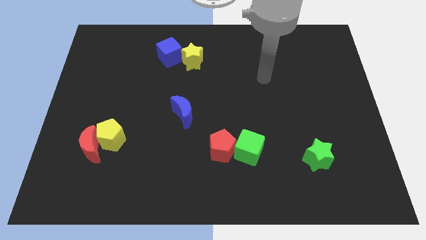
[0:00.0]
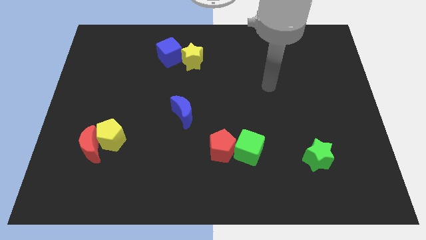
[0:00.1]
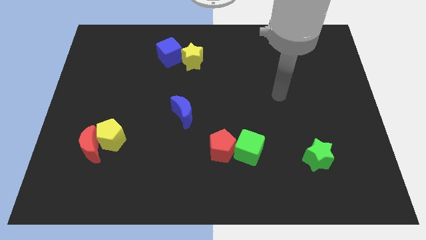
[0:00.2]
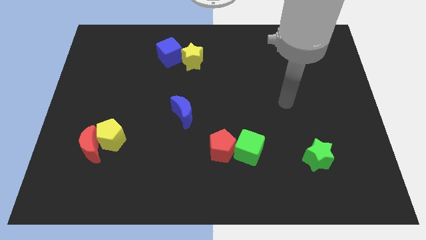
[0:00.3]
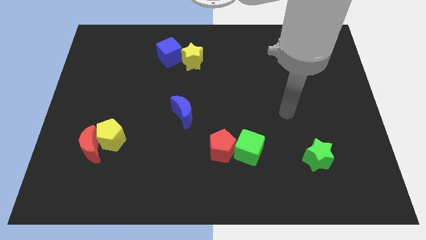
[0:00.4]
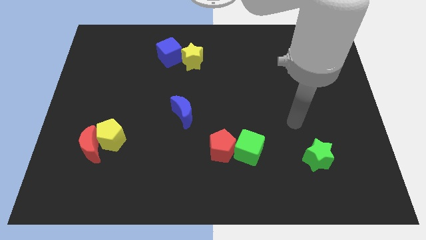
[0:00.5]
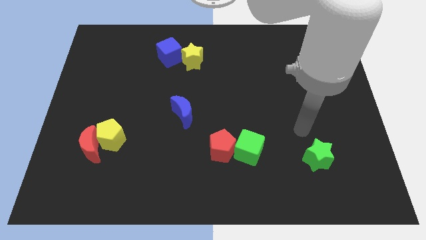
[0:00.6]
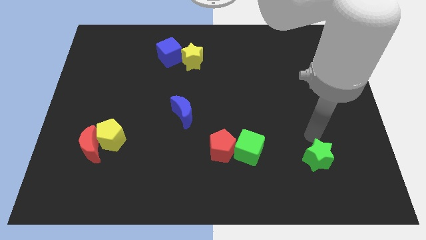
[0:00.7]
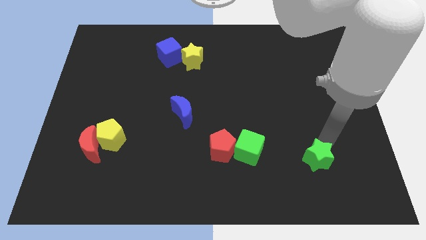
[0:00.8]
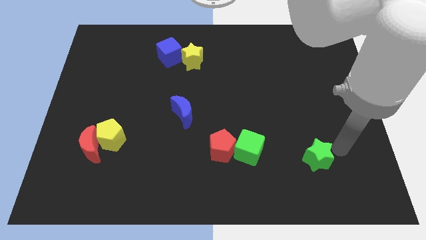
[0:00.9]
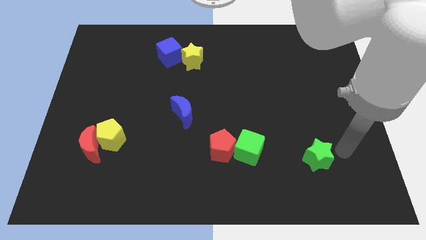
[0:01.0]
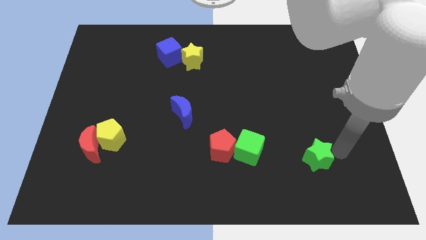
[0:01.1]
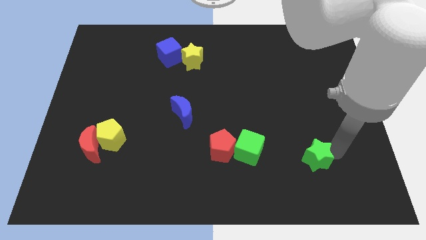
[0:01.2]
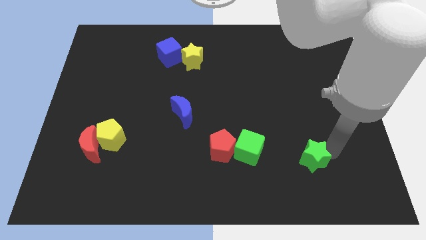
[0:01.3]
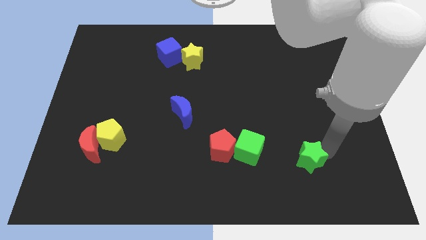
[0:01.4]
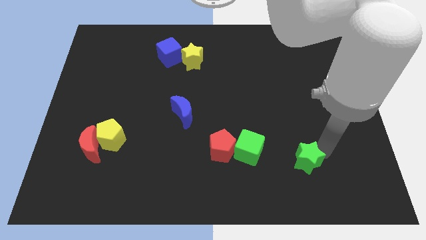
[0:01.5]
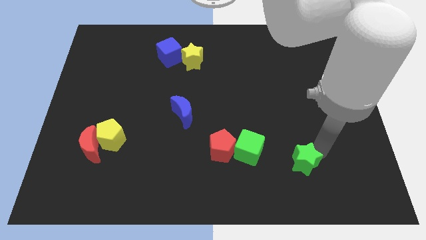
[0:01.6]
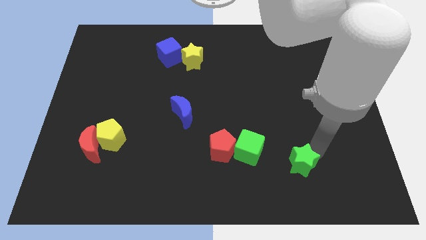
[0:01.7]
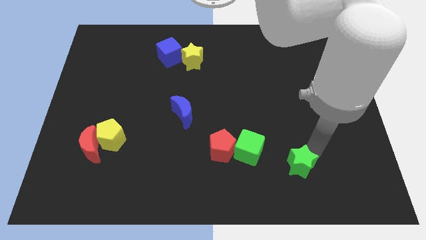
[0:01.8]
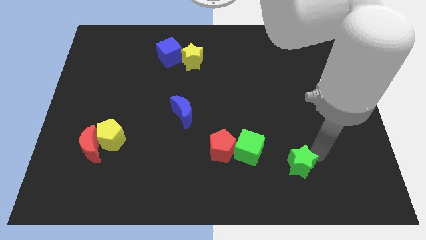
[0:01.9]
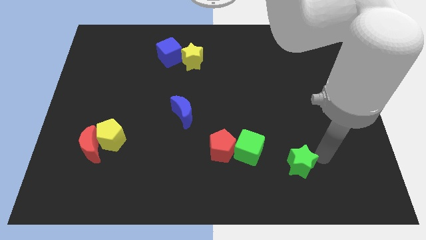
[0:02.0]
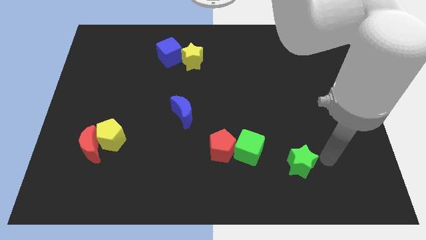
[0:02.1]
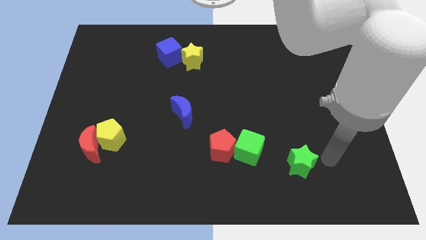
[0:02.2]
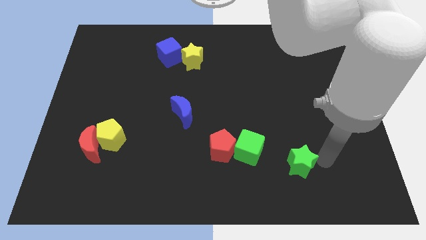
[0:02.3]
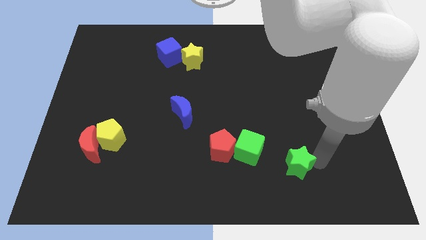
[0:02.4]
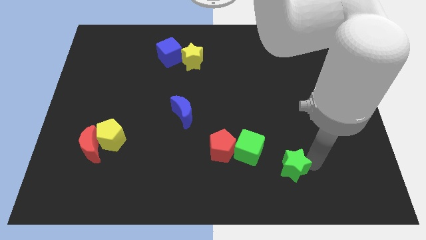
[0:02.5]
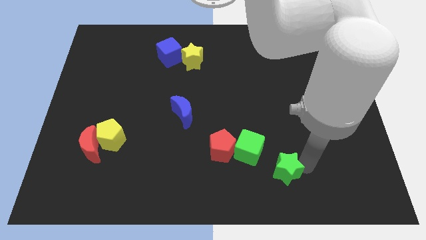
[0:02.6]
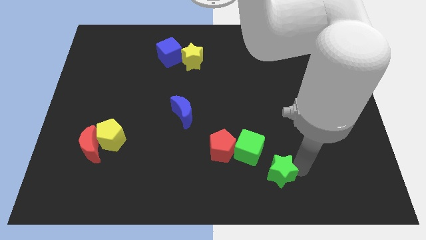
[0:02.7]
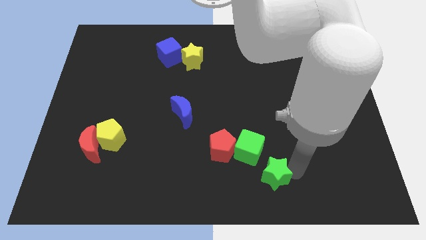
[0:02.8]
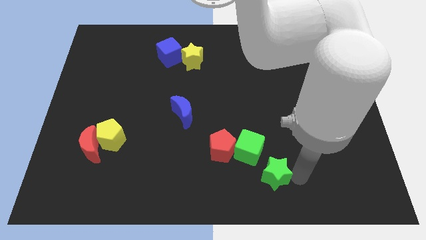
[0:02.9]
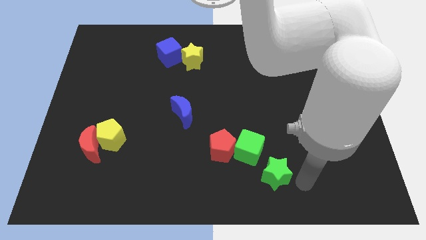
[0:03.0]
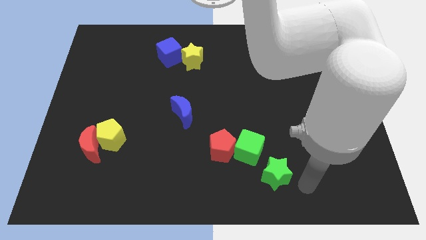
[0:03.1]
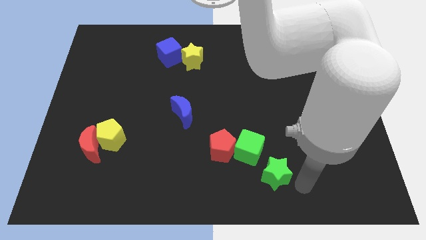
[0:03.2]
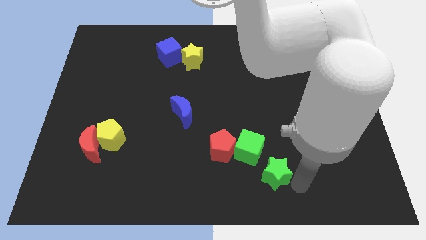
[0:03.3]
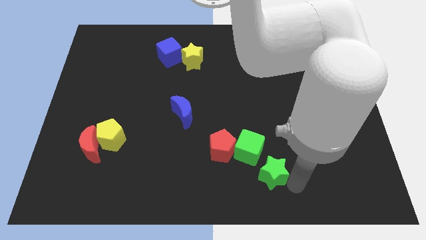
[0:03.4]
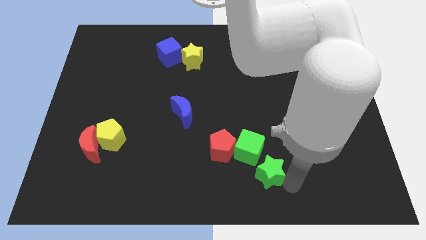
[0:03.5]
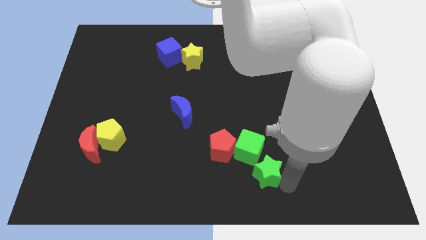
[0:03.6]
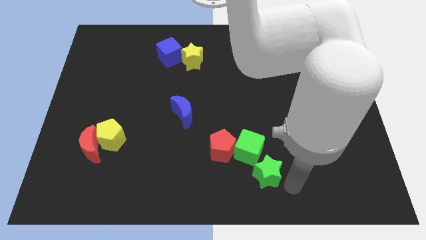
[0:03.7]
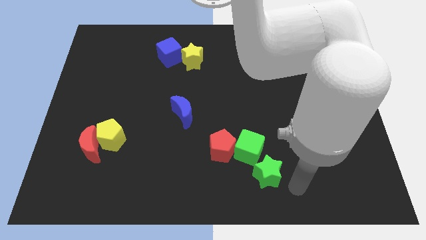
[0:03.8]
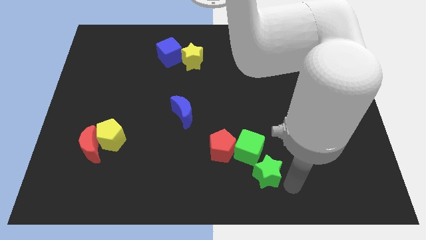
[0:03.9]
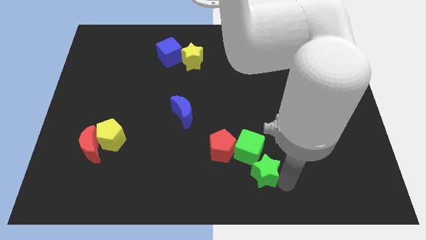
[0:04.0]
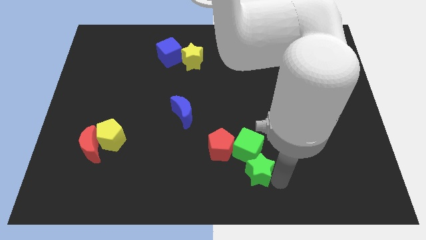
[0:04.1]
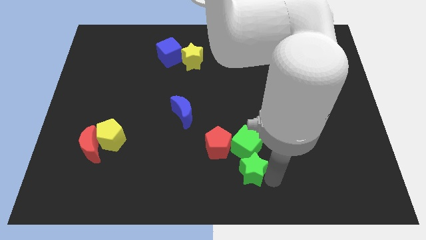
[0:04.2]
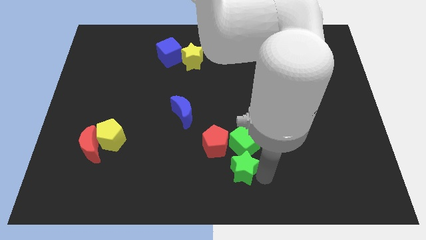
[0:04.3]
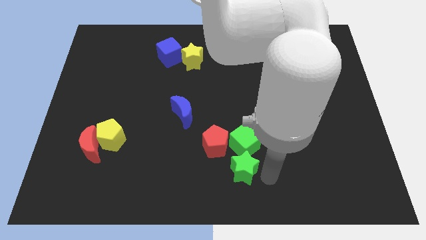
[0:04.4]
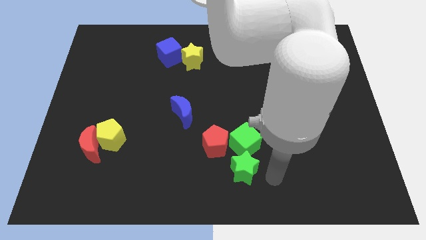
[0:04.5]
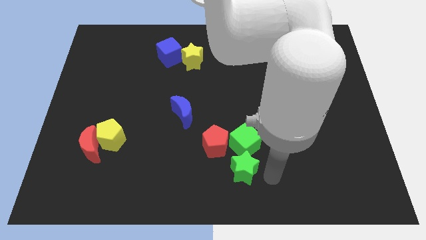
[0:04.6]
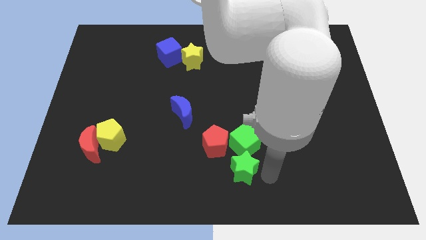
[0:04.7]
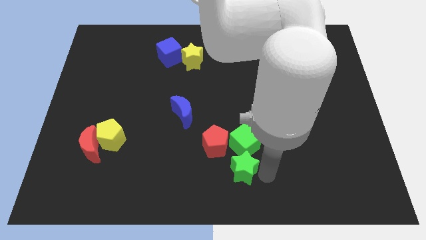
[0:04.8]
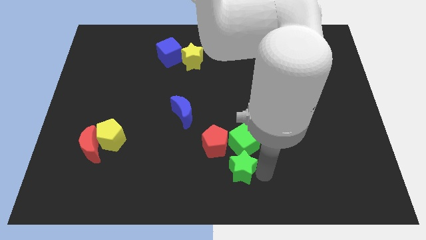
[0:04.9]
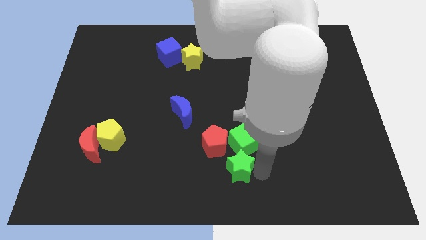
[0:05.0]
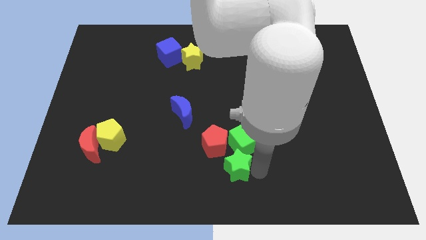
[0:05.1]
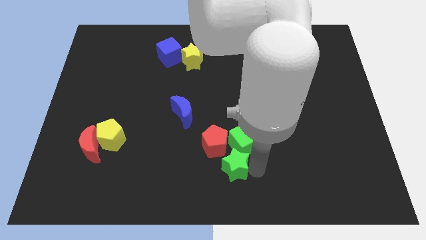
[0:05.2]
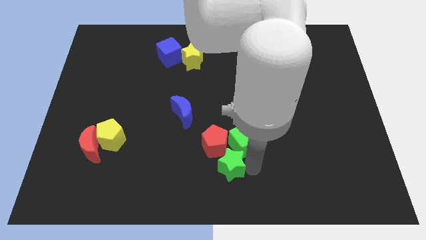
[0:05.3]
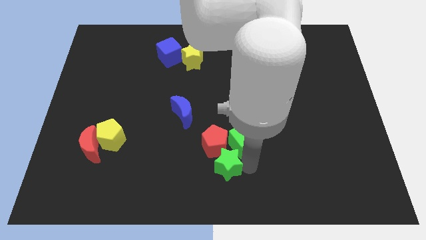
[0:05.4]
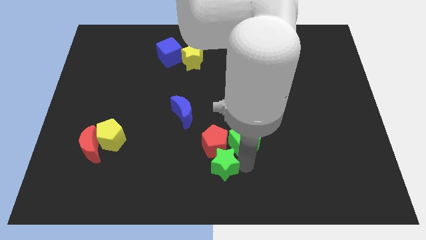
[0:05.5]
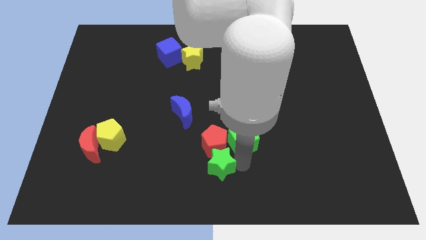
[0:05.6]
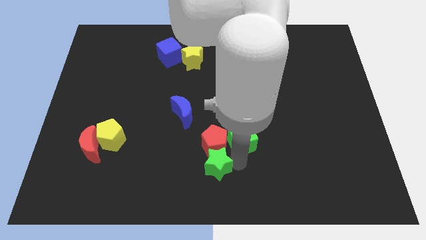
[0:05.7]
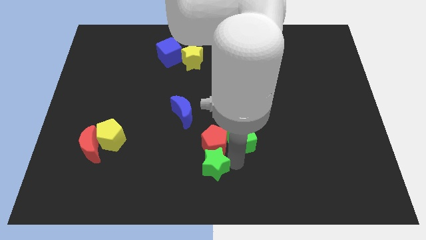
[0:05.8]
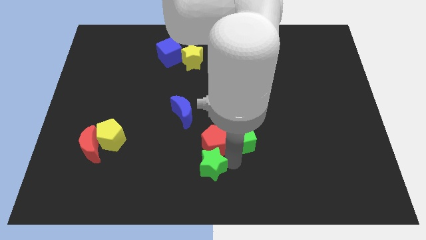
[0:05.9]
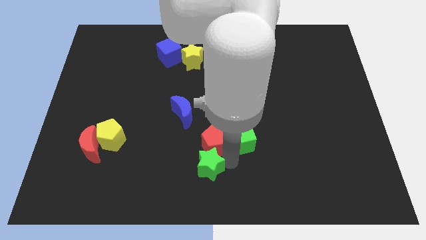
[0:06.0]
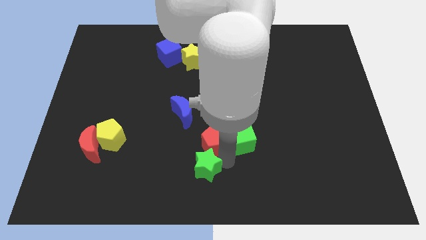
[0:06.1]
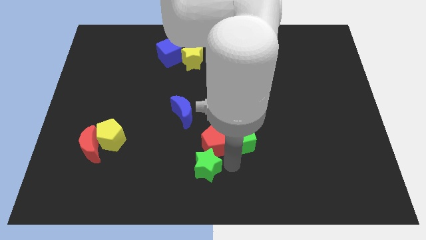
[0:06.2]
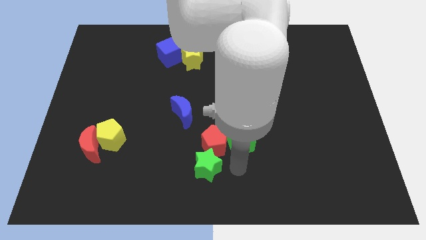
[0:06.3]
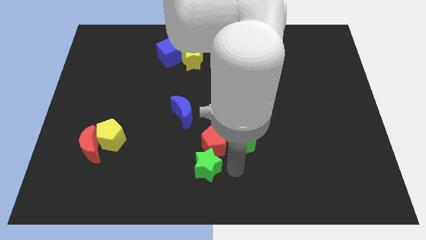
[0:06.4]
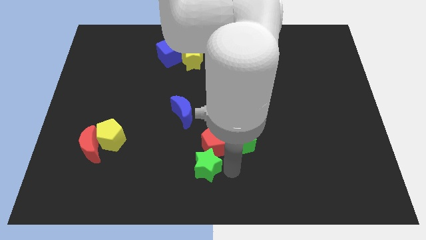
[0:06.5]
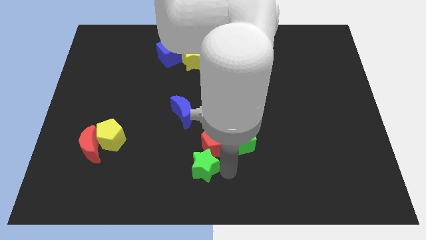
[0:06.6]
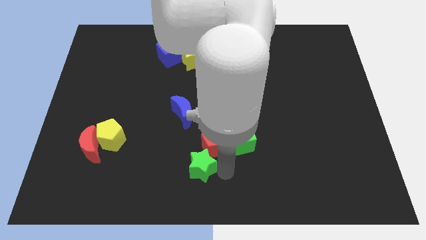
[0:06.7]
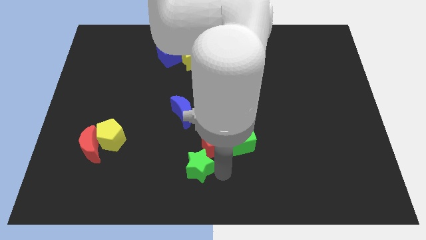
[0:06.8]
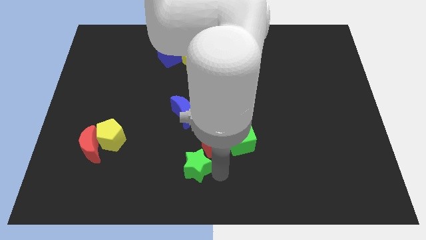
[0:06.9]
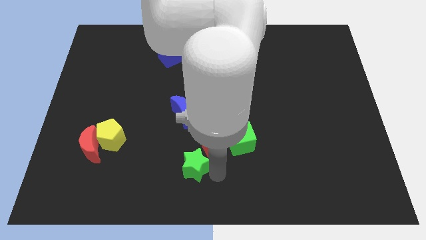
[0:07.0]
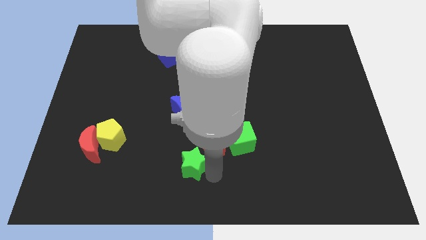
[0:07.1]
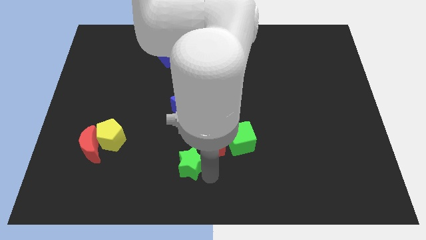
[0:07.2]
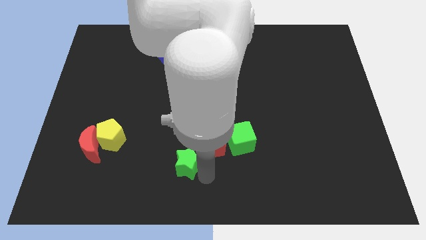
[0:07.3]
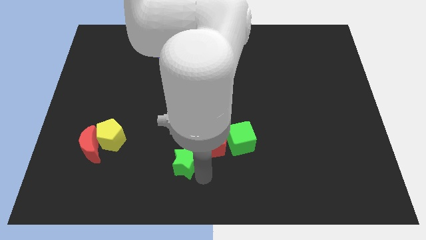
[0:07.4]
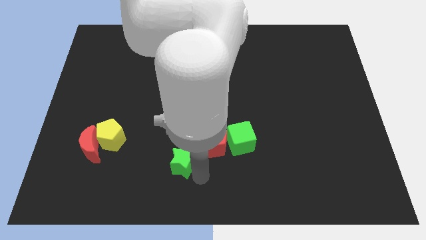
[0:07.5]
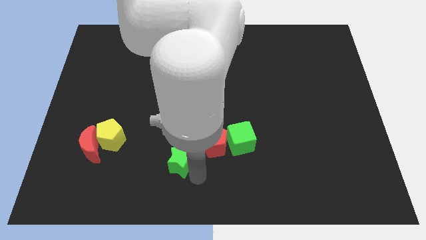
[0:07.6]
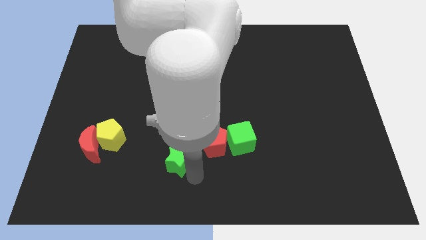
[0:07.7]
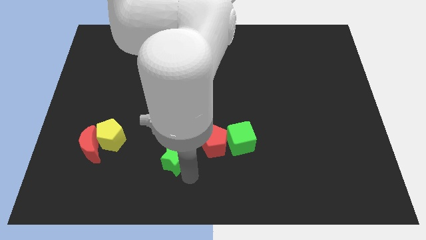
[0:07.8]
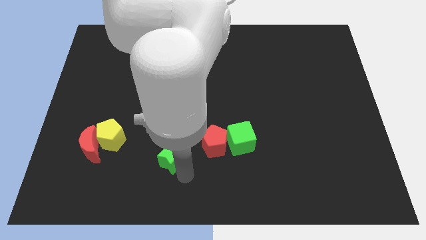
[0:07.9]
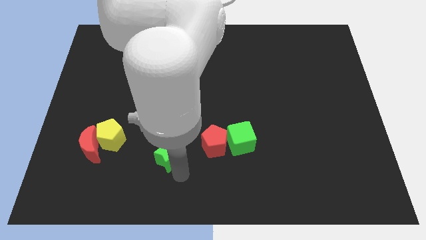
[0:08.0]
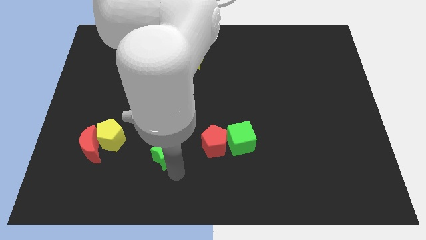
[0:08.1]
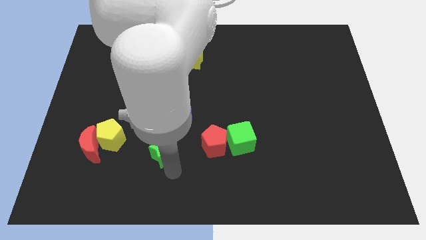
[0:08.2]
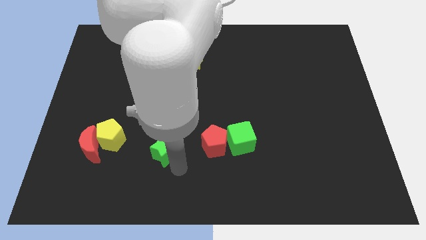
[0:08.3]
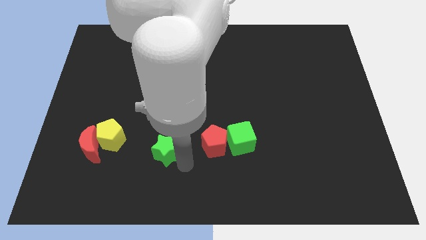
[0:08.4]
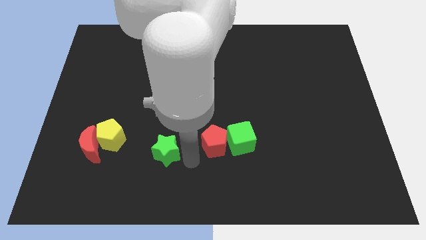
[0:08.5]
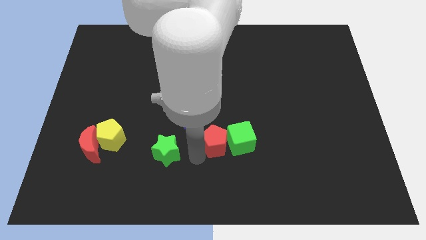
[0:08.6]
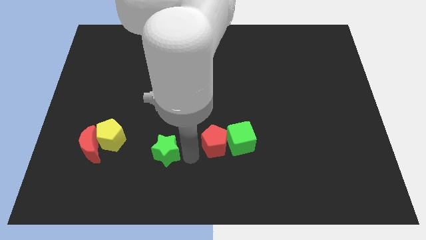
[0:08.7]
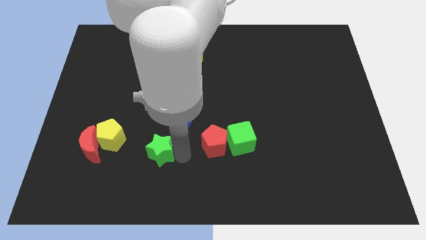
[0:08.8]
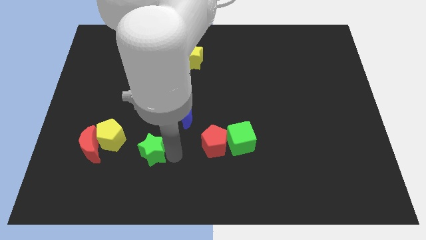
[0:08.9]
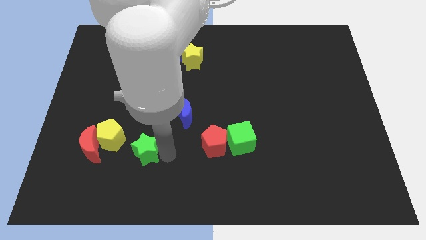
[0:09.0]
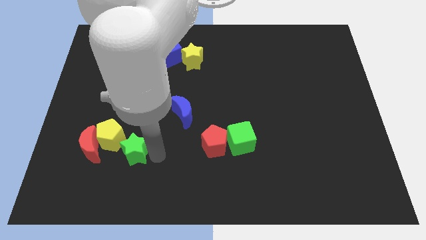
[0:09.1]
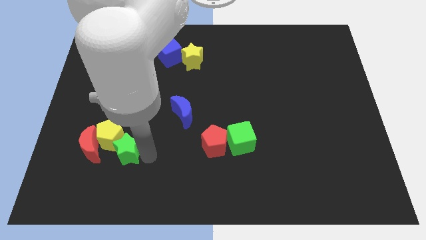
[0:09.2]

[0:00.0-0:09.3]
move the green star next to the yellow pentagon
